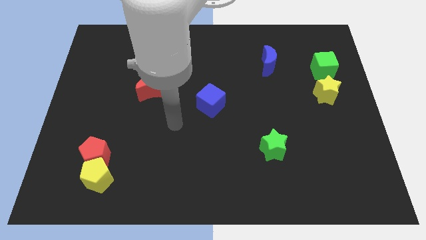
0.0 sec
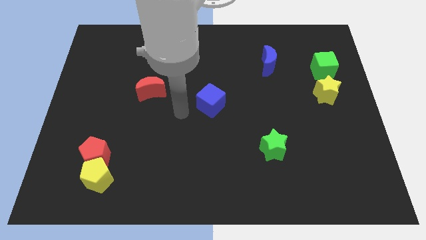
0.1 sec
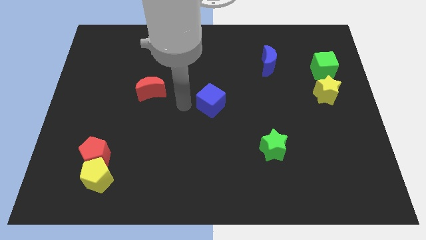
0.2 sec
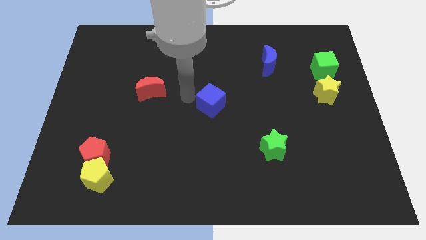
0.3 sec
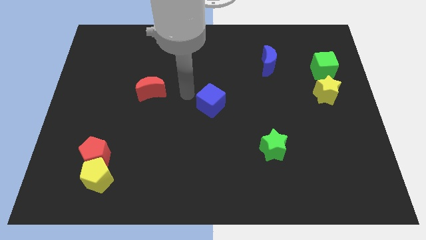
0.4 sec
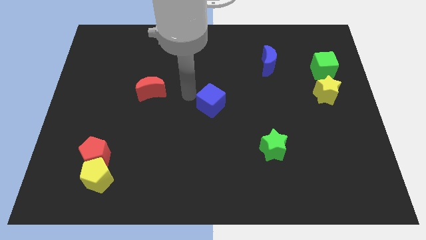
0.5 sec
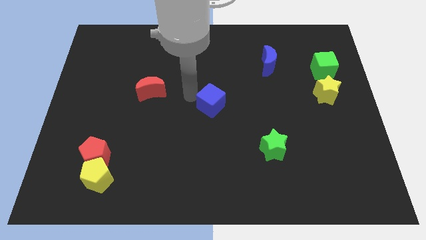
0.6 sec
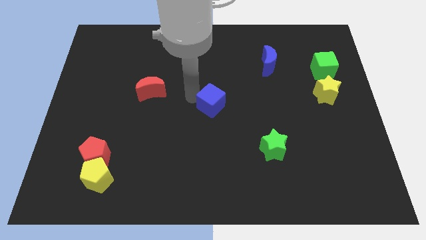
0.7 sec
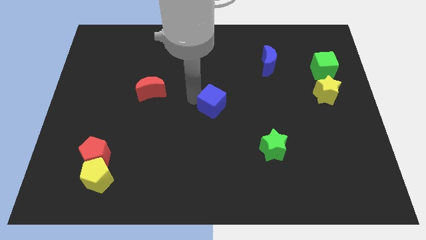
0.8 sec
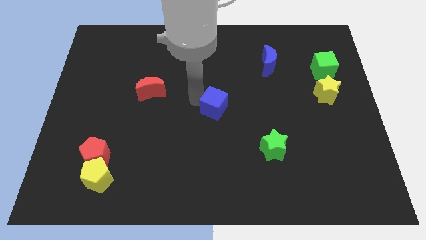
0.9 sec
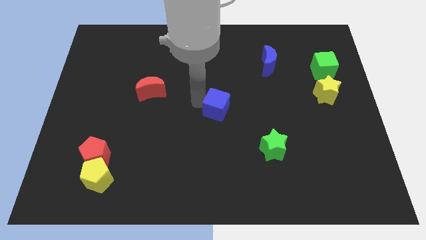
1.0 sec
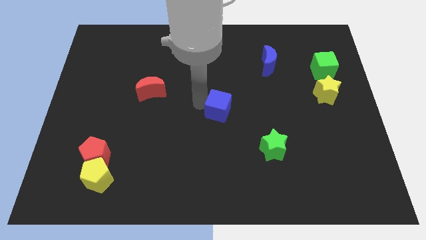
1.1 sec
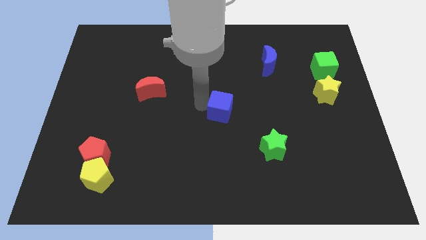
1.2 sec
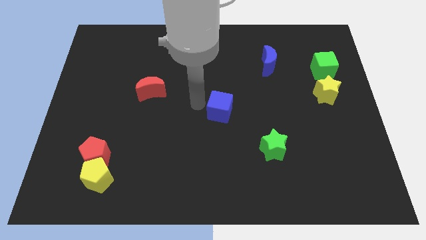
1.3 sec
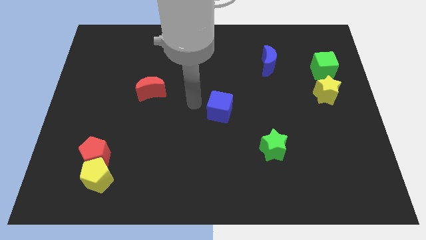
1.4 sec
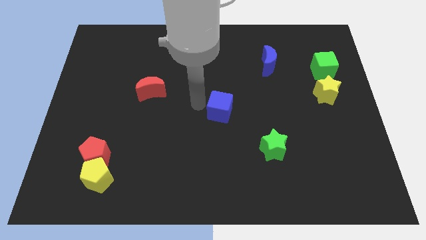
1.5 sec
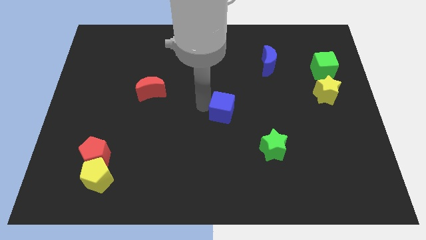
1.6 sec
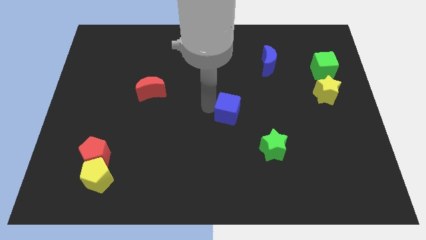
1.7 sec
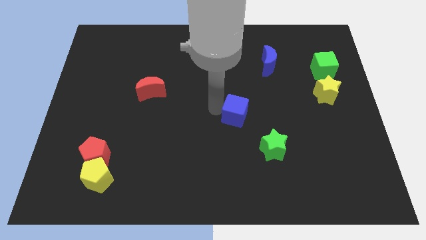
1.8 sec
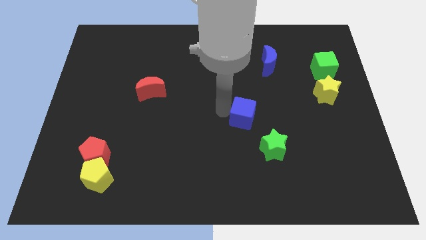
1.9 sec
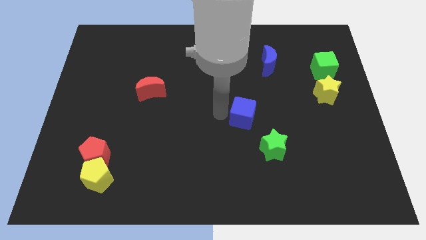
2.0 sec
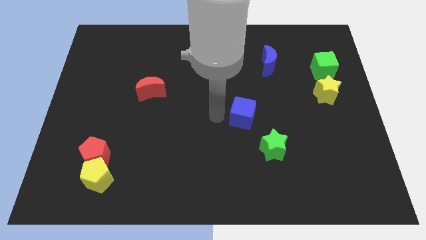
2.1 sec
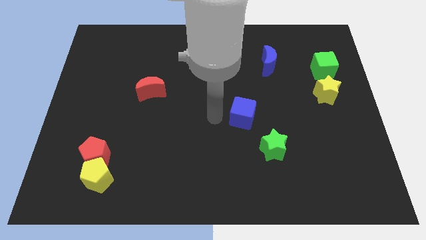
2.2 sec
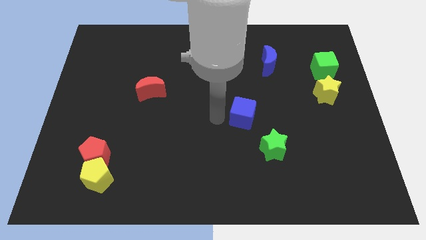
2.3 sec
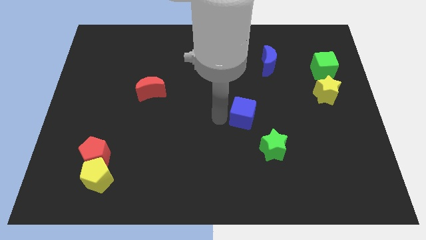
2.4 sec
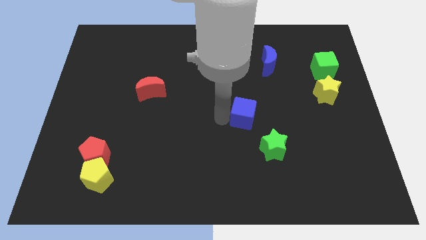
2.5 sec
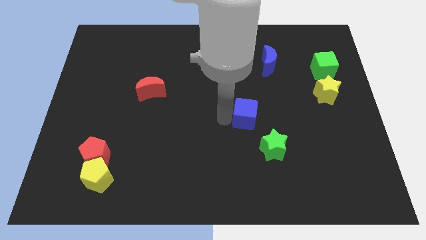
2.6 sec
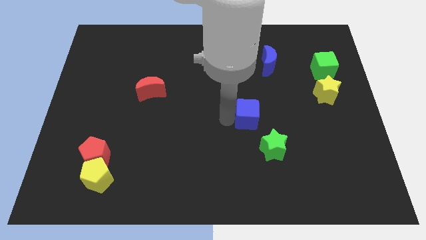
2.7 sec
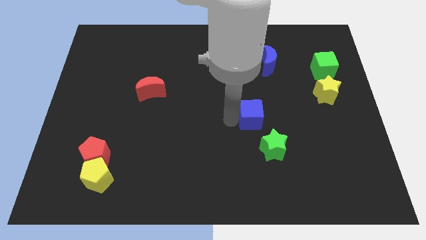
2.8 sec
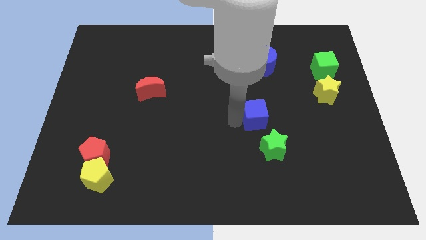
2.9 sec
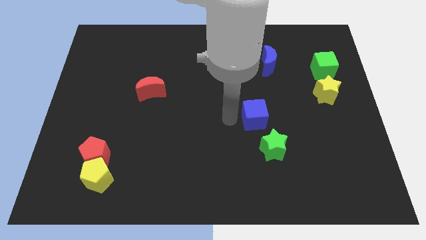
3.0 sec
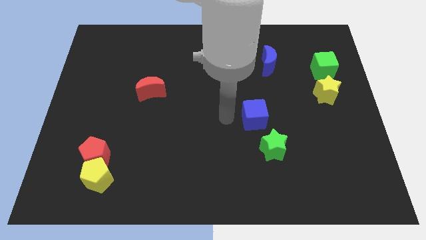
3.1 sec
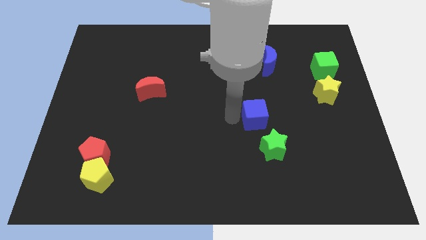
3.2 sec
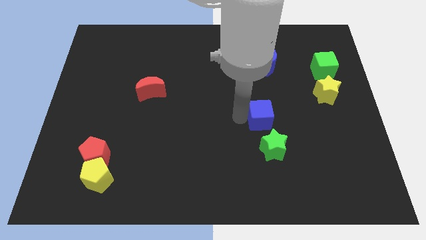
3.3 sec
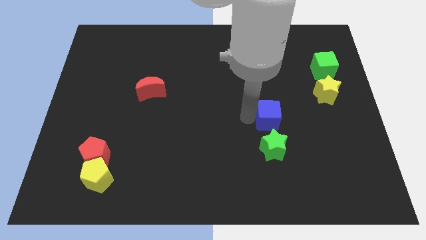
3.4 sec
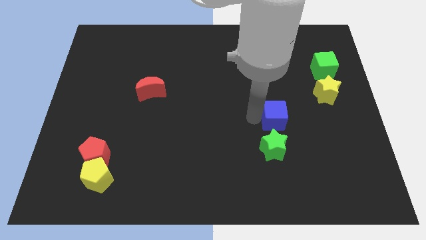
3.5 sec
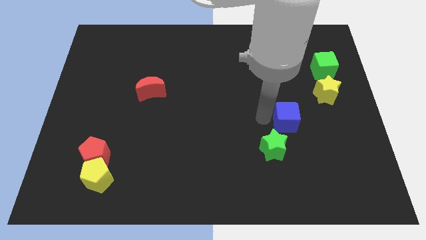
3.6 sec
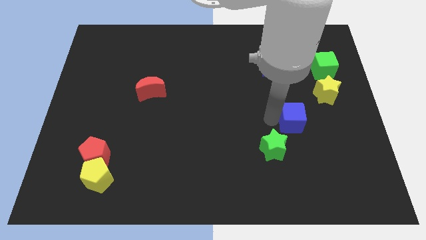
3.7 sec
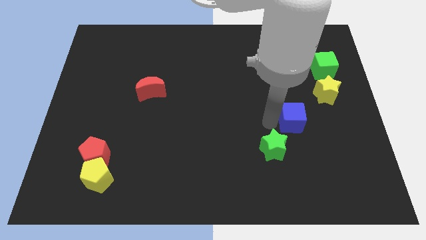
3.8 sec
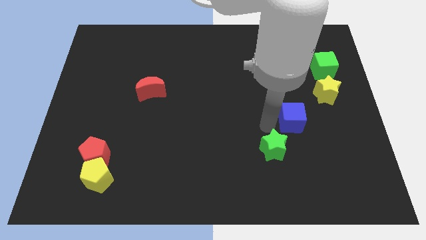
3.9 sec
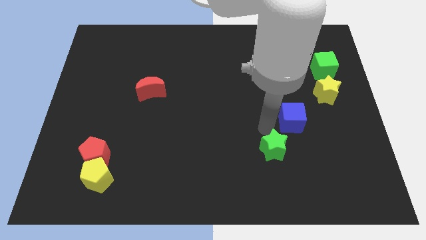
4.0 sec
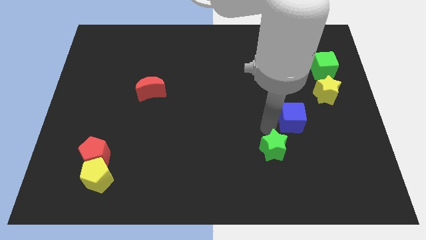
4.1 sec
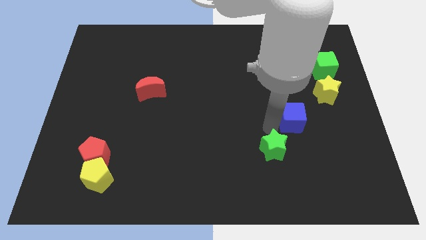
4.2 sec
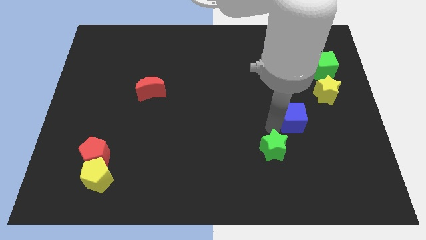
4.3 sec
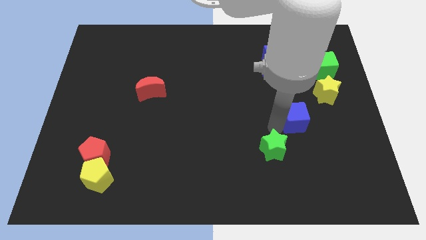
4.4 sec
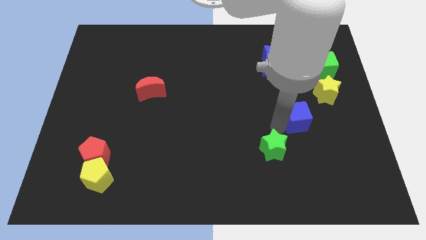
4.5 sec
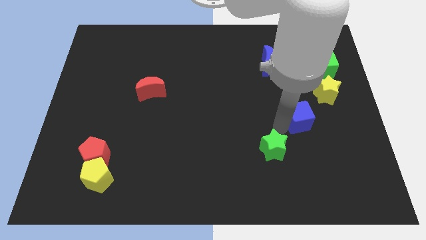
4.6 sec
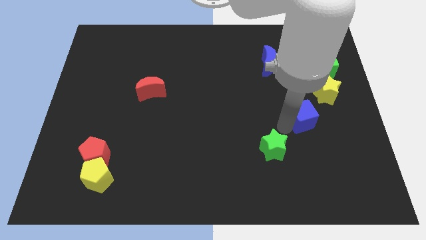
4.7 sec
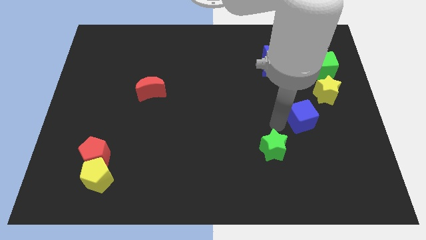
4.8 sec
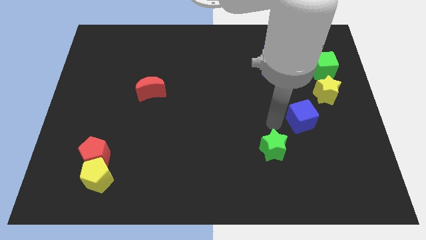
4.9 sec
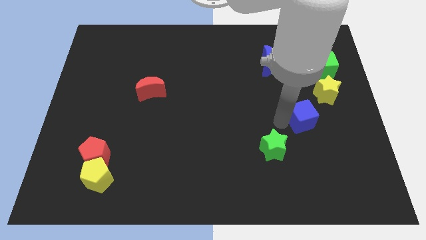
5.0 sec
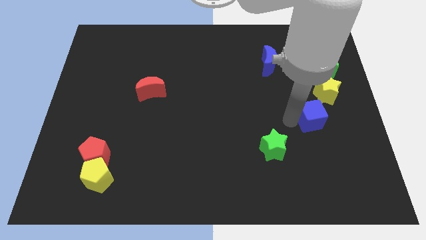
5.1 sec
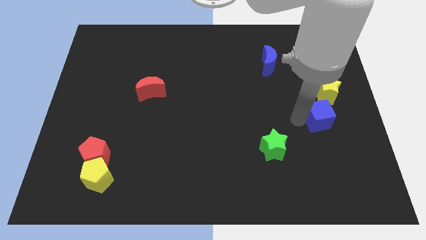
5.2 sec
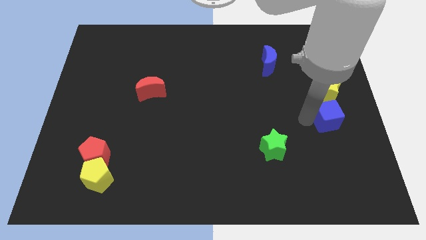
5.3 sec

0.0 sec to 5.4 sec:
push the blue cube to the right side of the board

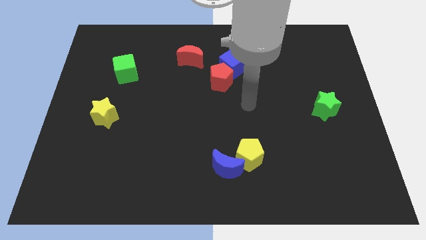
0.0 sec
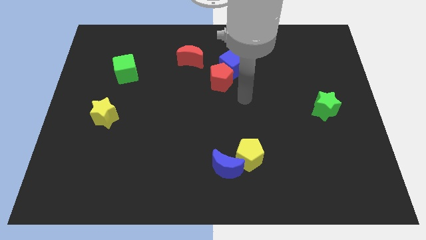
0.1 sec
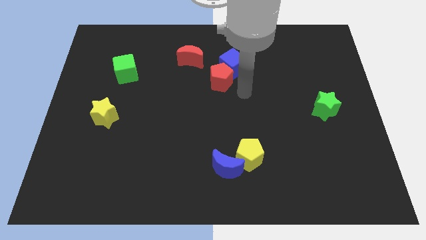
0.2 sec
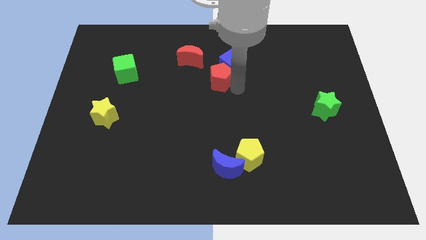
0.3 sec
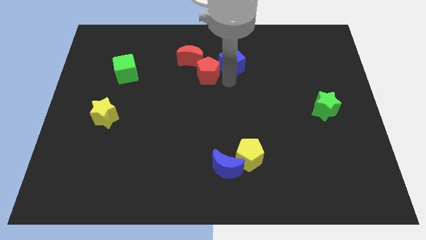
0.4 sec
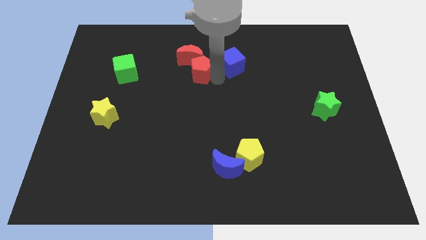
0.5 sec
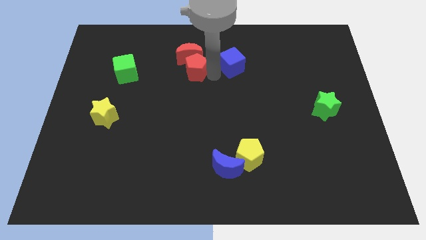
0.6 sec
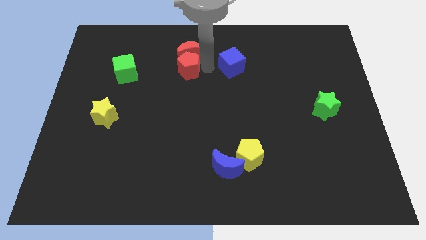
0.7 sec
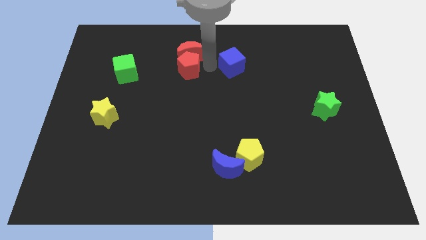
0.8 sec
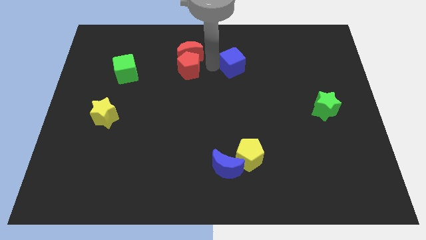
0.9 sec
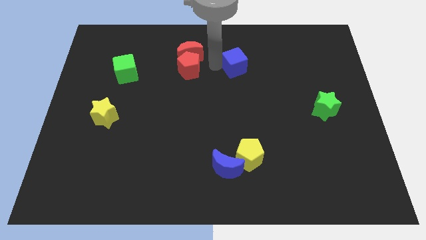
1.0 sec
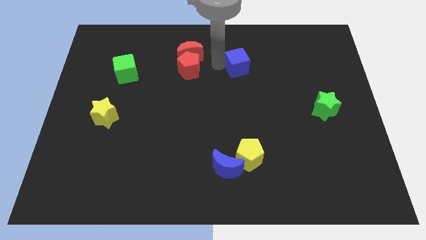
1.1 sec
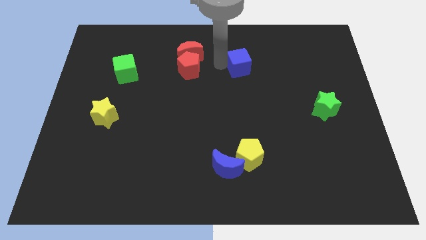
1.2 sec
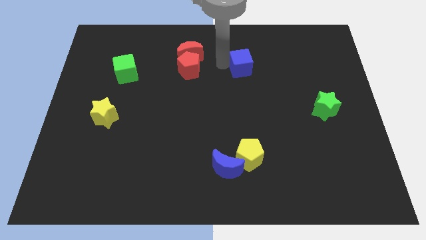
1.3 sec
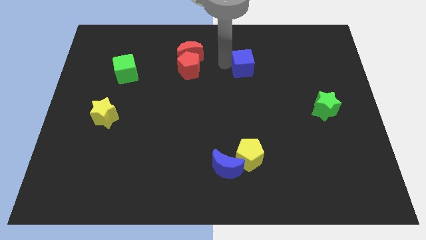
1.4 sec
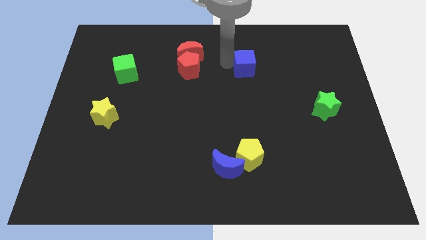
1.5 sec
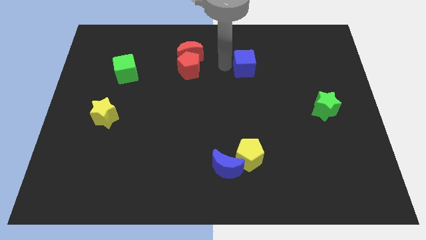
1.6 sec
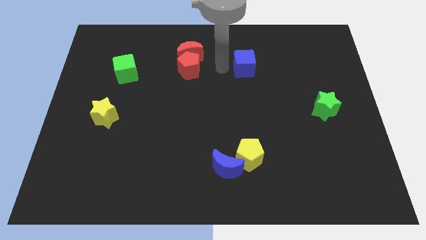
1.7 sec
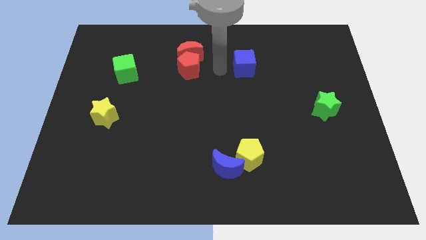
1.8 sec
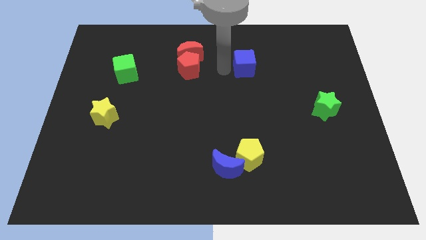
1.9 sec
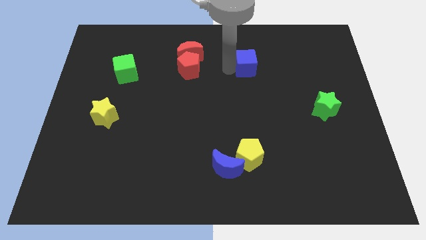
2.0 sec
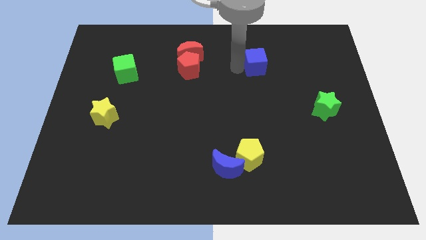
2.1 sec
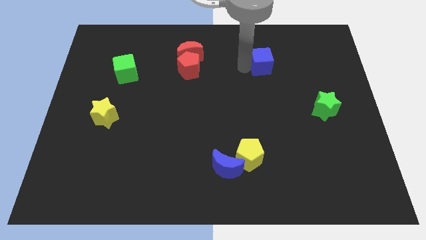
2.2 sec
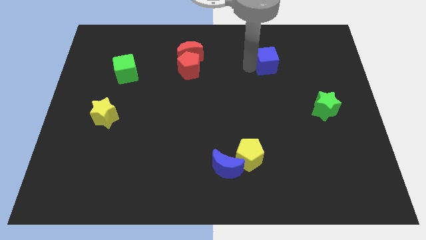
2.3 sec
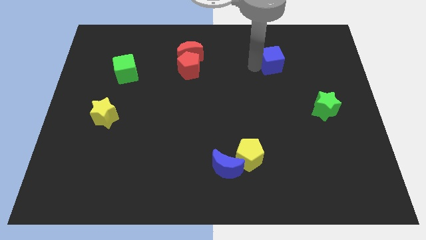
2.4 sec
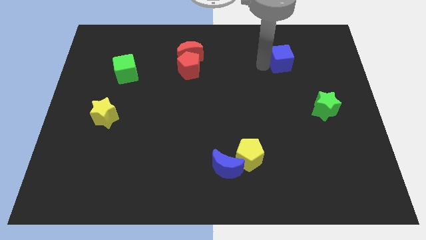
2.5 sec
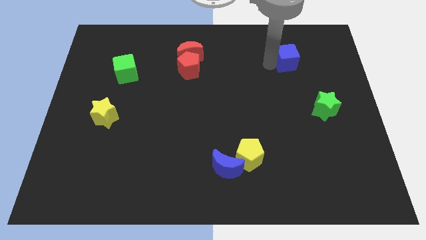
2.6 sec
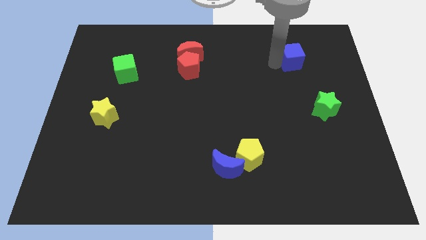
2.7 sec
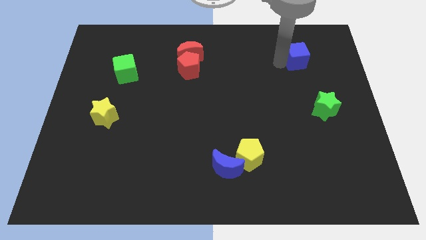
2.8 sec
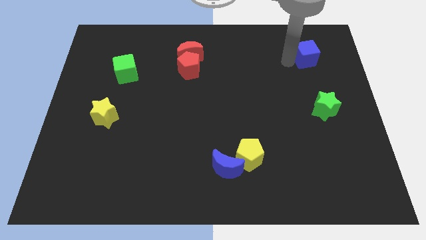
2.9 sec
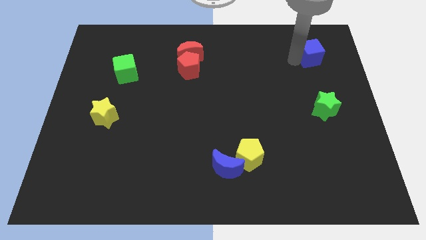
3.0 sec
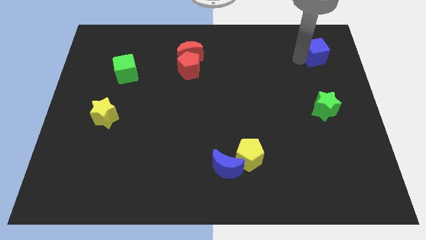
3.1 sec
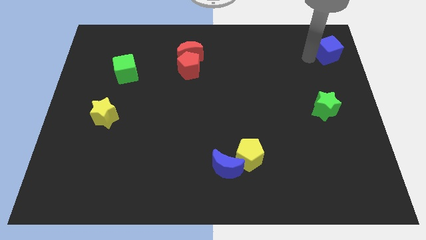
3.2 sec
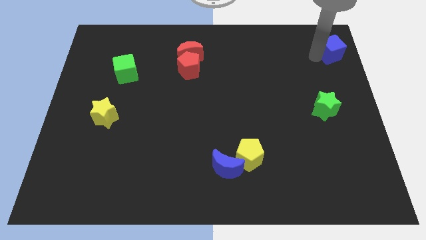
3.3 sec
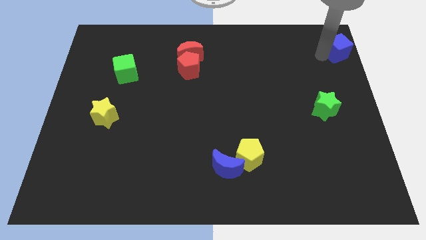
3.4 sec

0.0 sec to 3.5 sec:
slide the blue cube to the top right of the board
